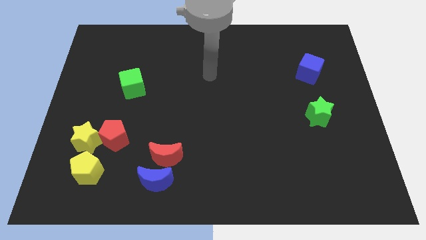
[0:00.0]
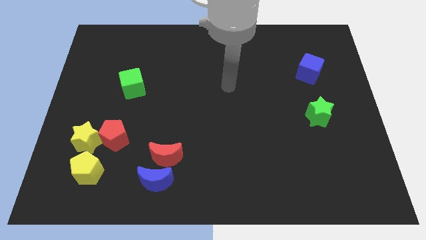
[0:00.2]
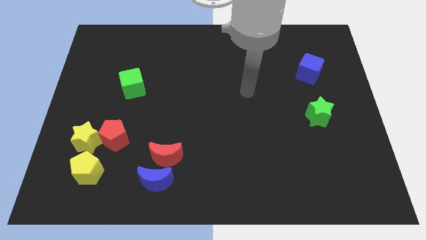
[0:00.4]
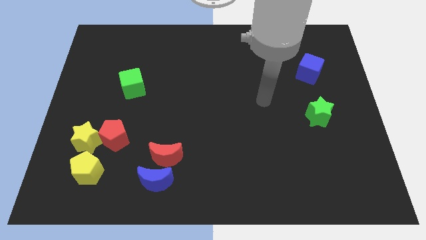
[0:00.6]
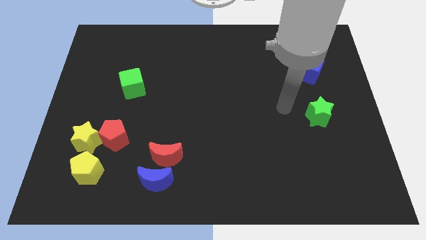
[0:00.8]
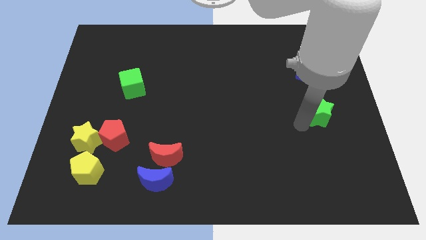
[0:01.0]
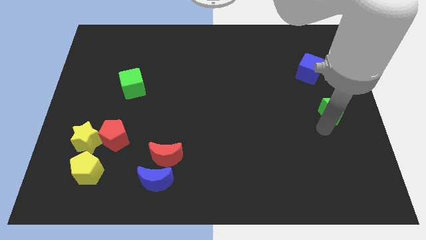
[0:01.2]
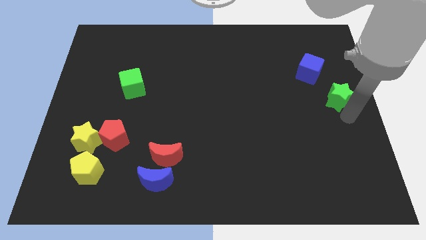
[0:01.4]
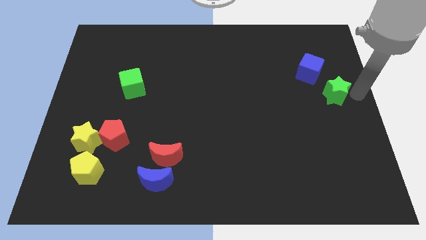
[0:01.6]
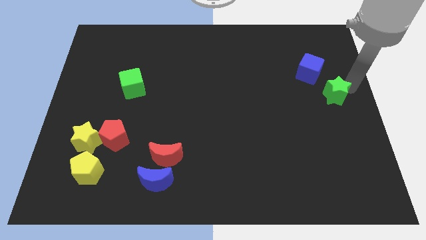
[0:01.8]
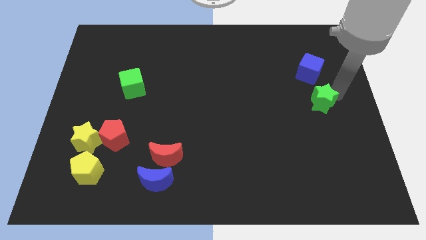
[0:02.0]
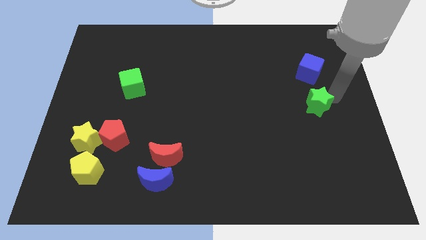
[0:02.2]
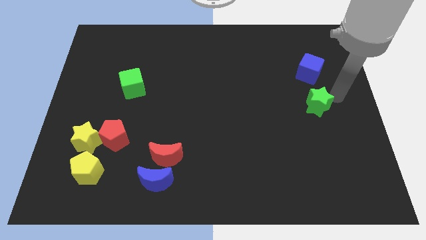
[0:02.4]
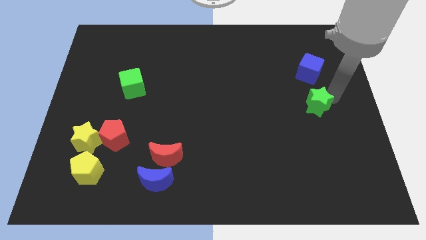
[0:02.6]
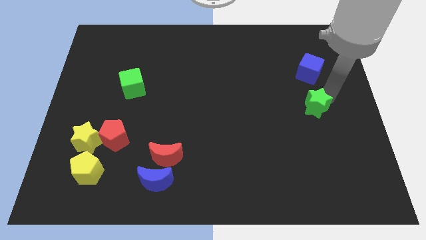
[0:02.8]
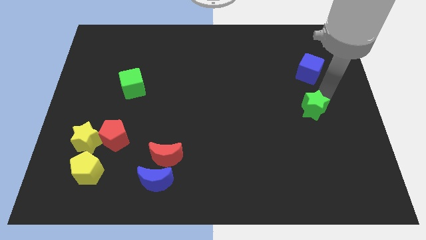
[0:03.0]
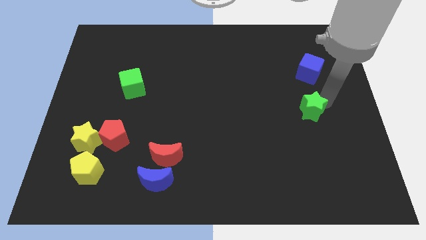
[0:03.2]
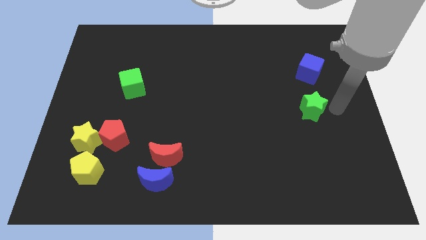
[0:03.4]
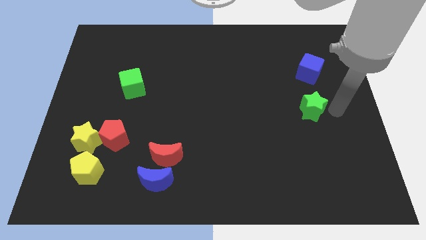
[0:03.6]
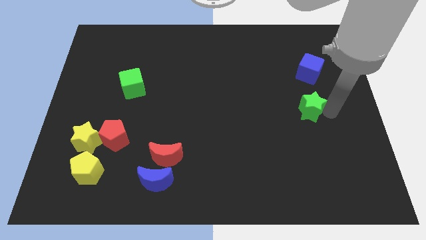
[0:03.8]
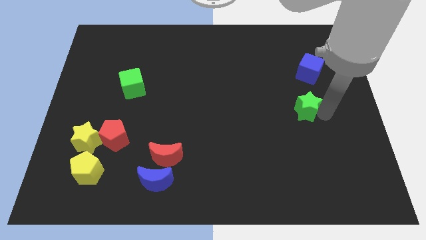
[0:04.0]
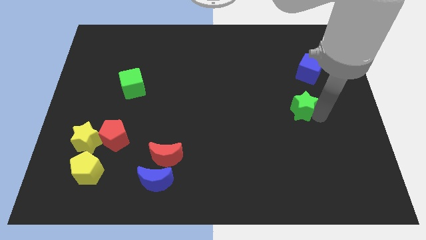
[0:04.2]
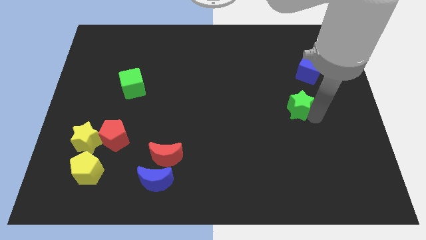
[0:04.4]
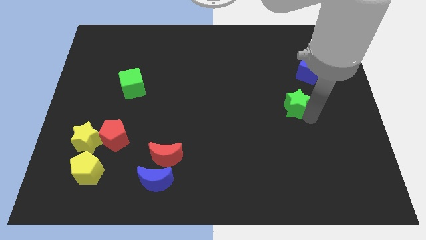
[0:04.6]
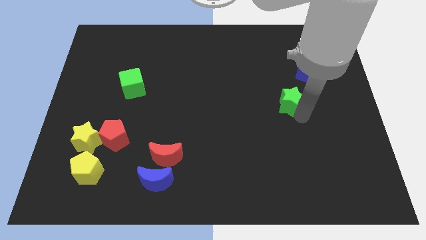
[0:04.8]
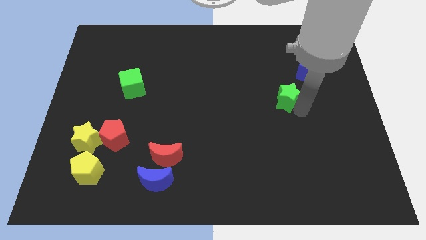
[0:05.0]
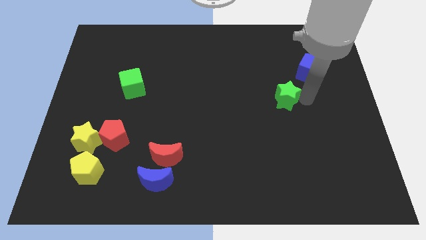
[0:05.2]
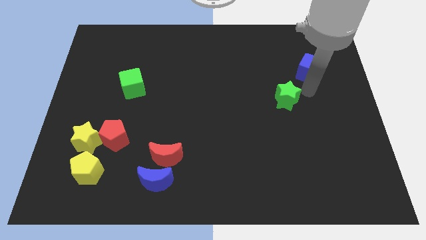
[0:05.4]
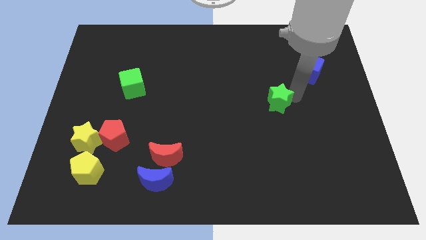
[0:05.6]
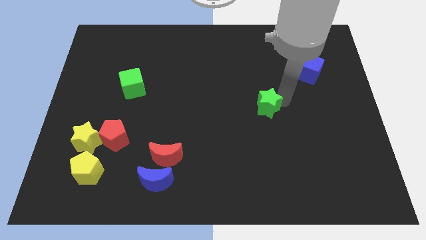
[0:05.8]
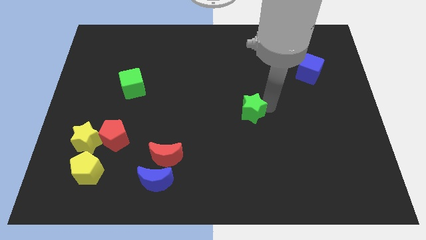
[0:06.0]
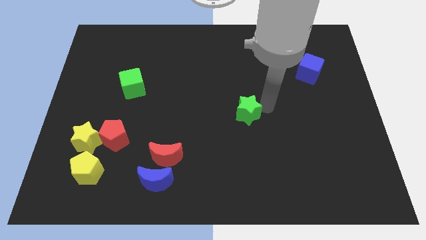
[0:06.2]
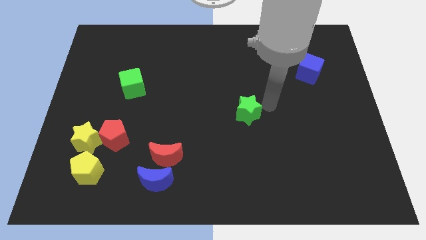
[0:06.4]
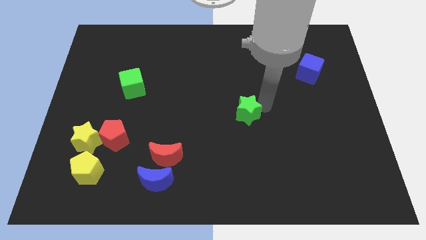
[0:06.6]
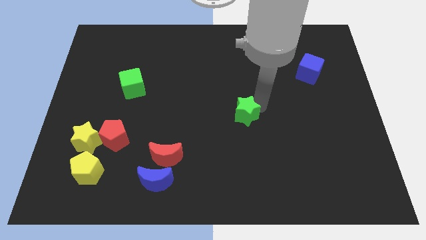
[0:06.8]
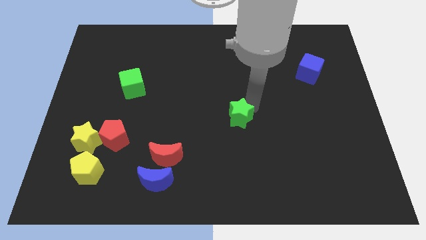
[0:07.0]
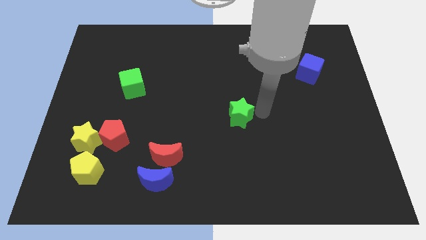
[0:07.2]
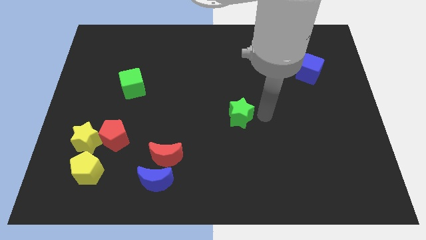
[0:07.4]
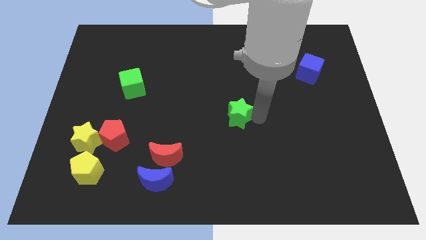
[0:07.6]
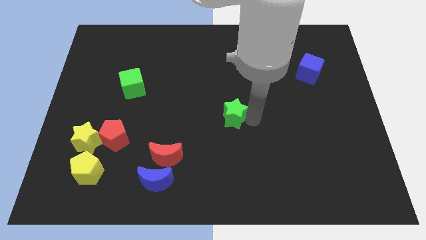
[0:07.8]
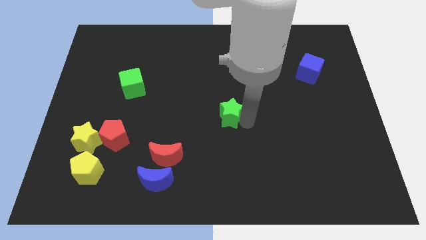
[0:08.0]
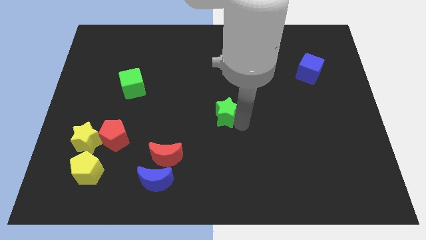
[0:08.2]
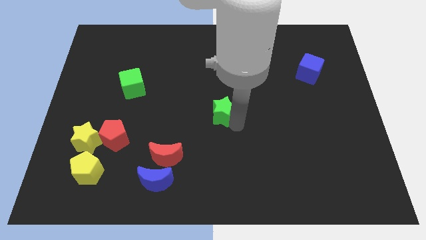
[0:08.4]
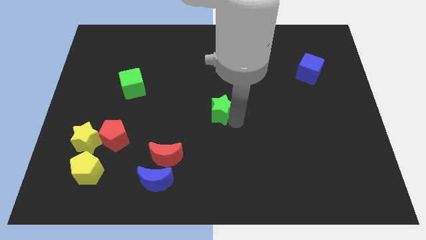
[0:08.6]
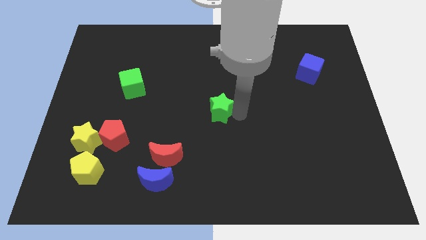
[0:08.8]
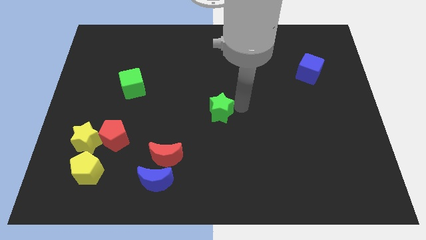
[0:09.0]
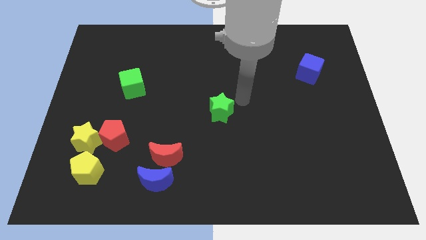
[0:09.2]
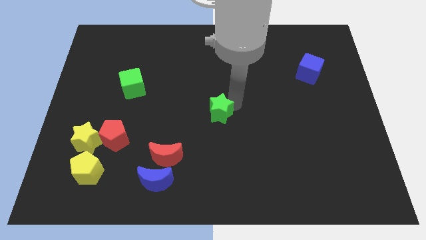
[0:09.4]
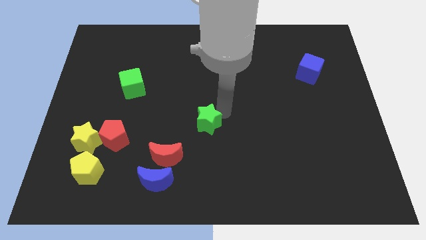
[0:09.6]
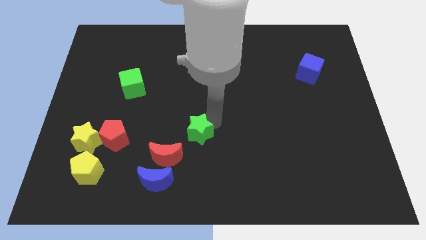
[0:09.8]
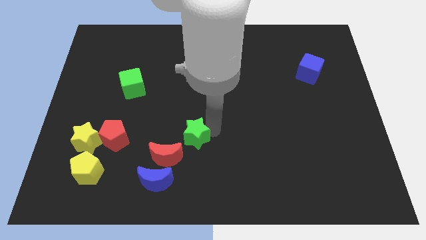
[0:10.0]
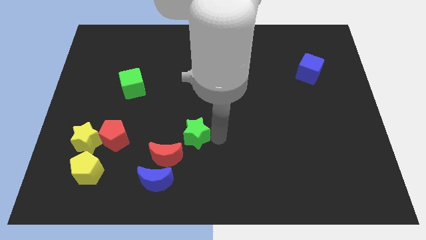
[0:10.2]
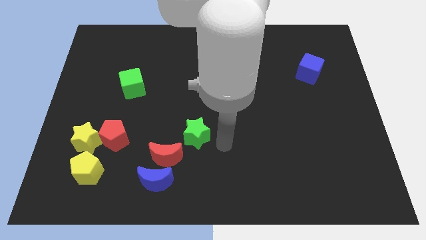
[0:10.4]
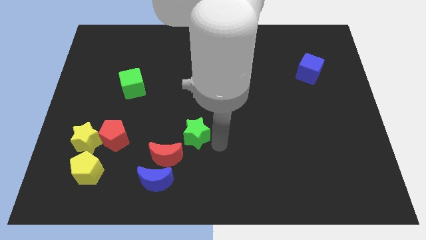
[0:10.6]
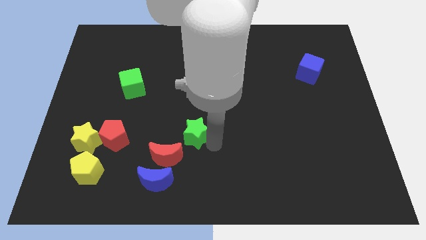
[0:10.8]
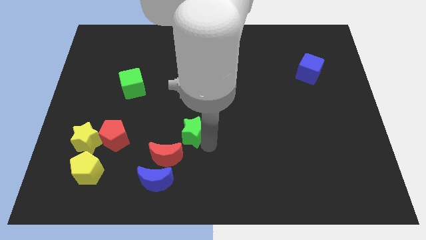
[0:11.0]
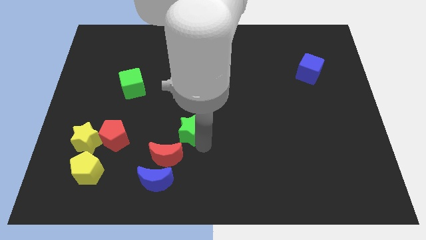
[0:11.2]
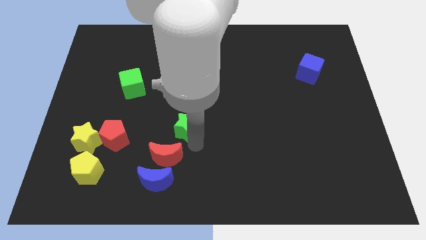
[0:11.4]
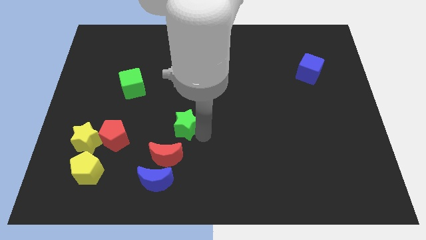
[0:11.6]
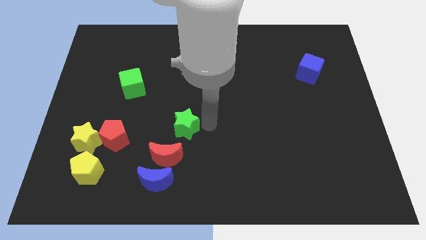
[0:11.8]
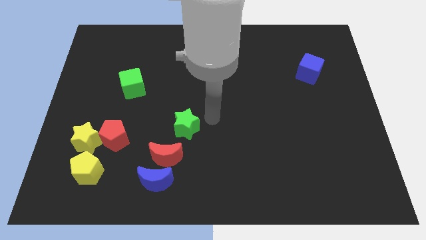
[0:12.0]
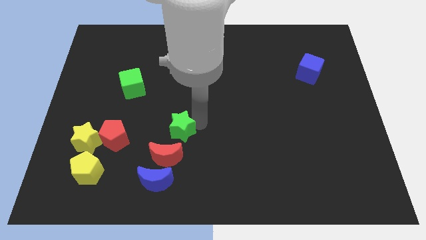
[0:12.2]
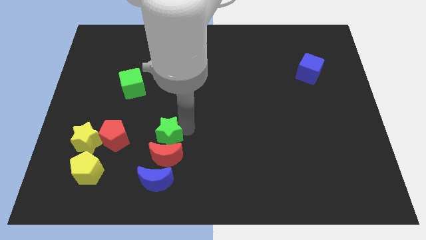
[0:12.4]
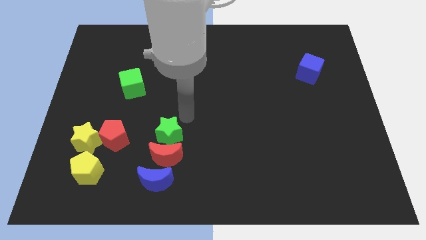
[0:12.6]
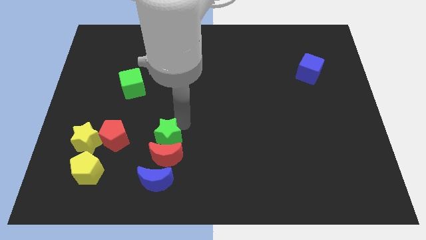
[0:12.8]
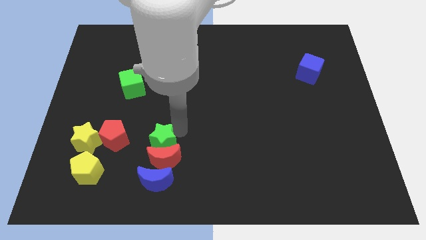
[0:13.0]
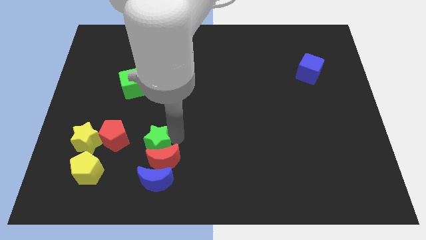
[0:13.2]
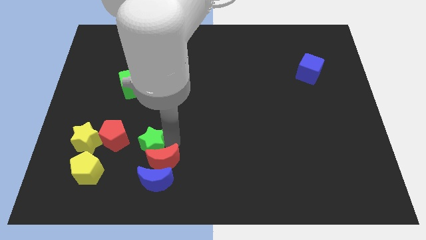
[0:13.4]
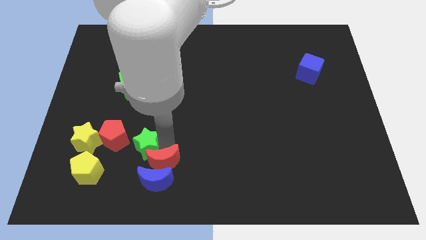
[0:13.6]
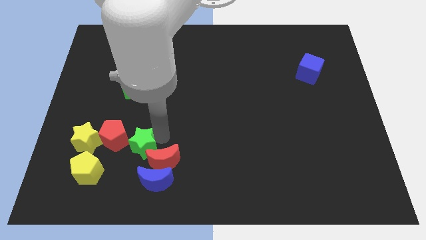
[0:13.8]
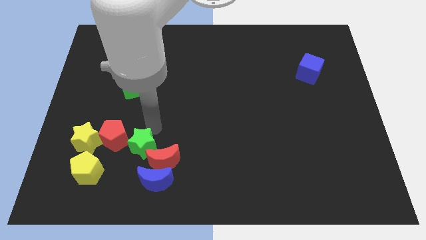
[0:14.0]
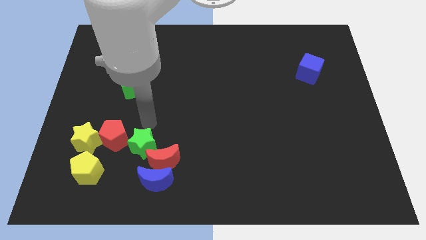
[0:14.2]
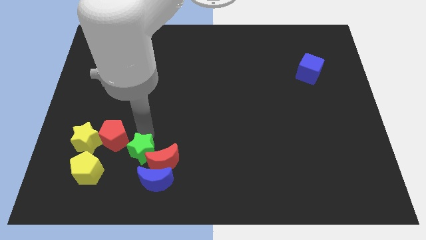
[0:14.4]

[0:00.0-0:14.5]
push the green star just right of the yellow pentagon
